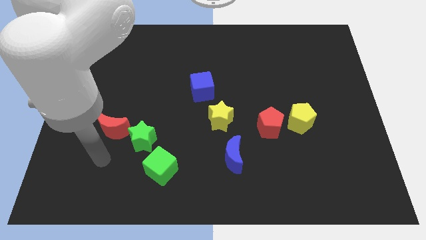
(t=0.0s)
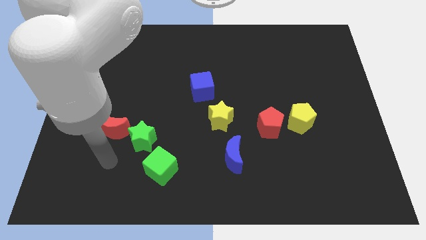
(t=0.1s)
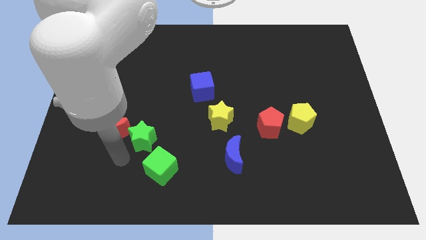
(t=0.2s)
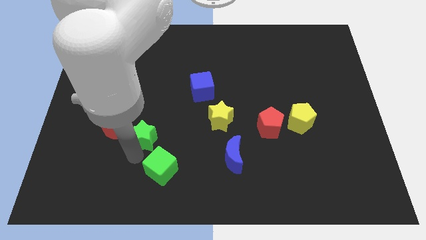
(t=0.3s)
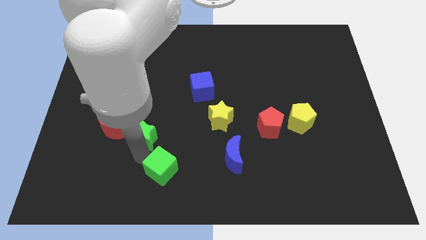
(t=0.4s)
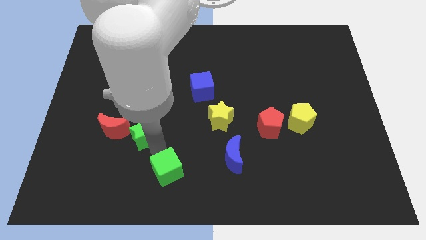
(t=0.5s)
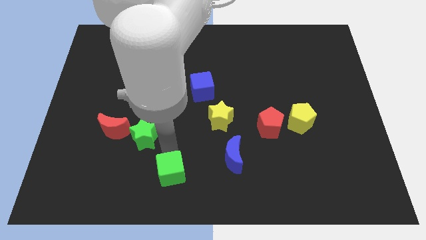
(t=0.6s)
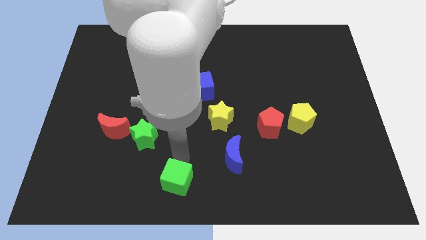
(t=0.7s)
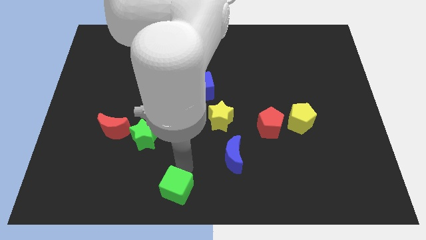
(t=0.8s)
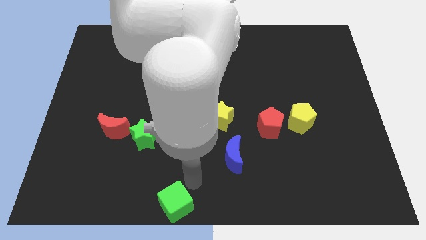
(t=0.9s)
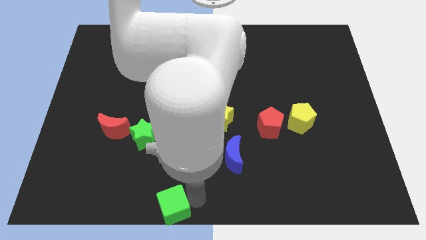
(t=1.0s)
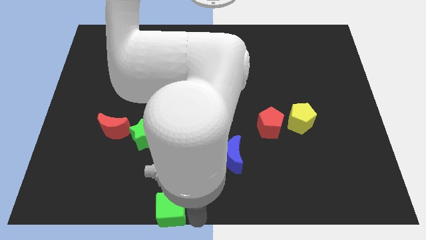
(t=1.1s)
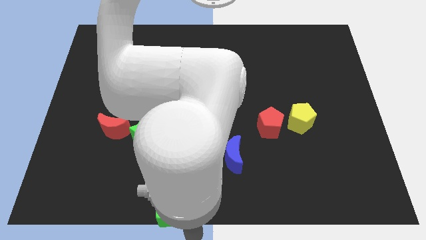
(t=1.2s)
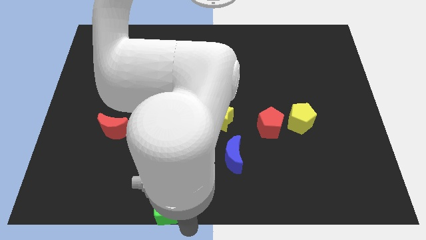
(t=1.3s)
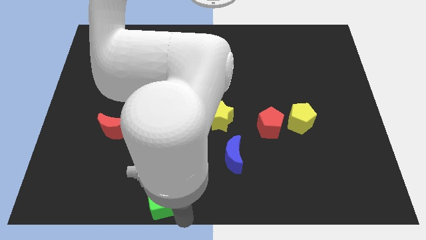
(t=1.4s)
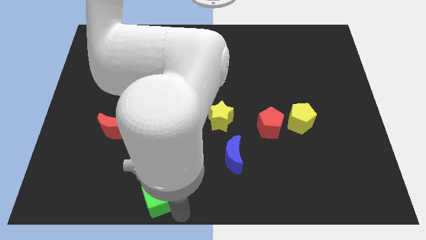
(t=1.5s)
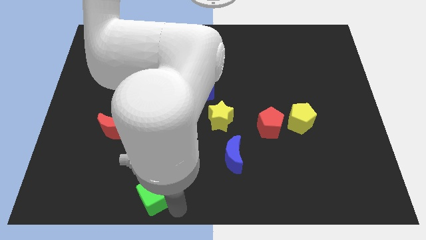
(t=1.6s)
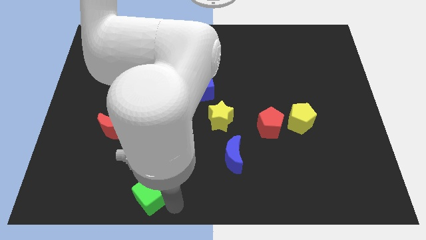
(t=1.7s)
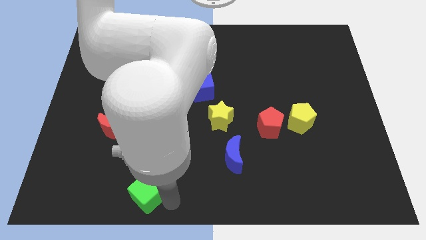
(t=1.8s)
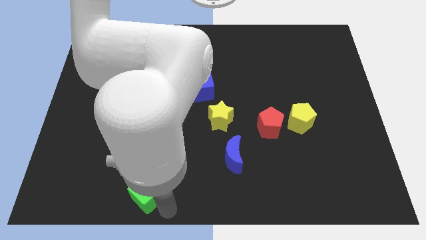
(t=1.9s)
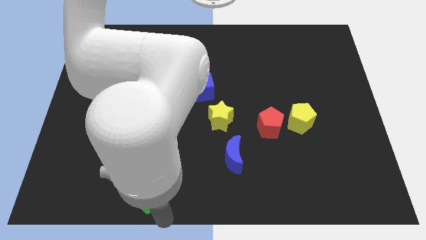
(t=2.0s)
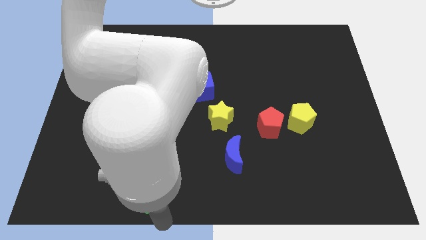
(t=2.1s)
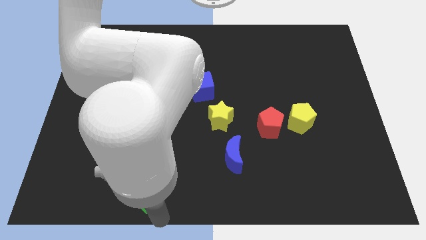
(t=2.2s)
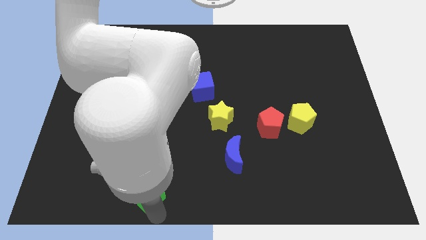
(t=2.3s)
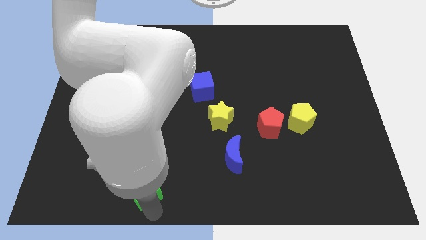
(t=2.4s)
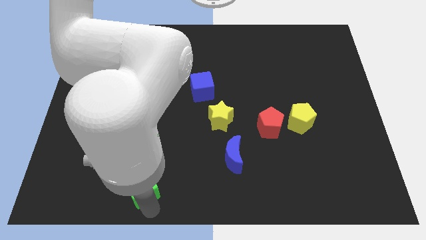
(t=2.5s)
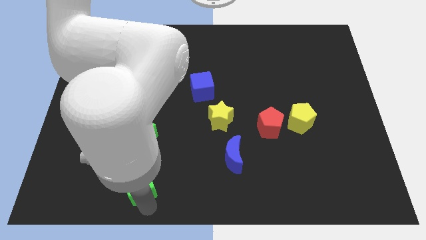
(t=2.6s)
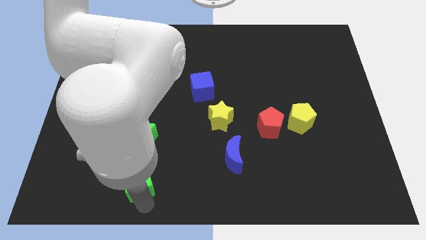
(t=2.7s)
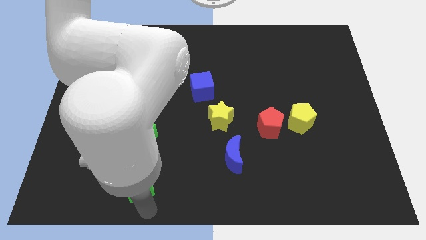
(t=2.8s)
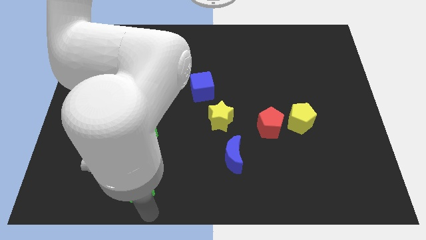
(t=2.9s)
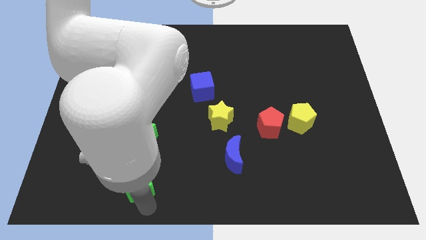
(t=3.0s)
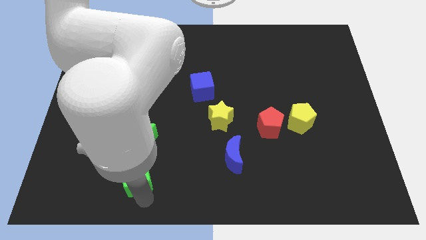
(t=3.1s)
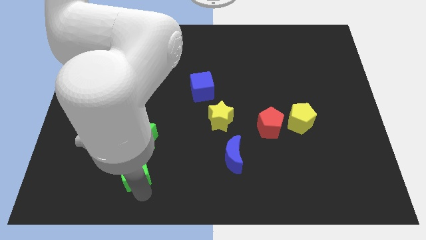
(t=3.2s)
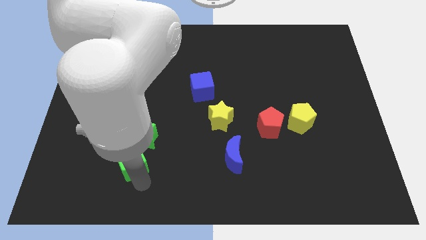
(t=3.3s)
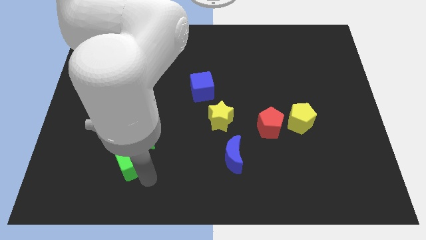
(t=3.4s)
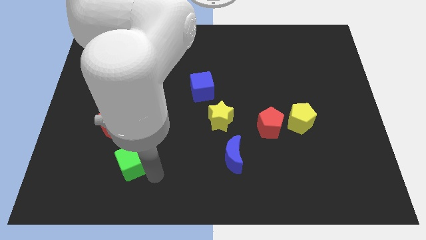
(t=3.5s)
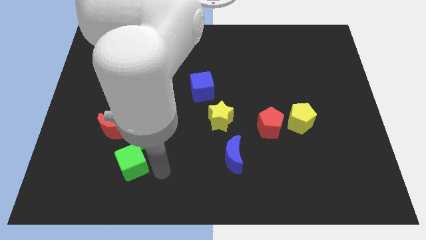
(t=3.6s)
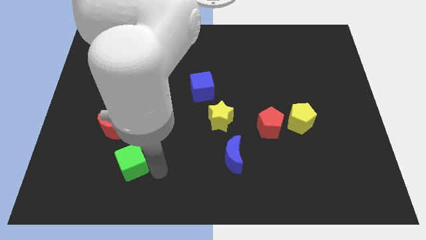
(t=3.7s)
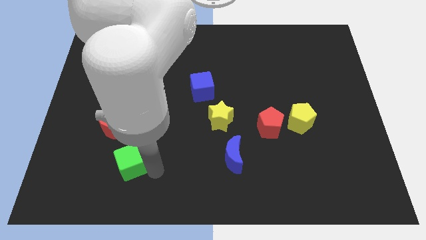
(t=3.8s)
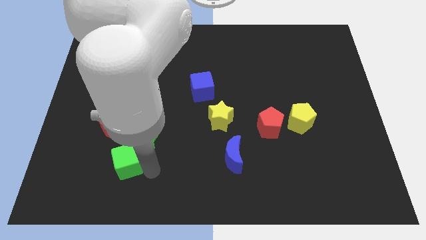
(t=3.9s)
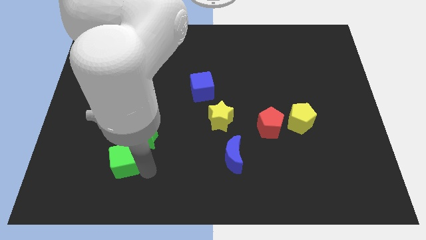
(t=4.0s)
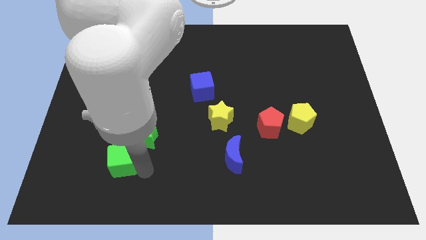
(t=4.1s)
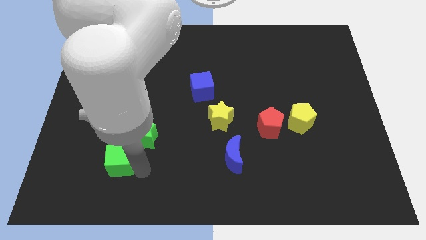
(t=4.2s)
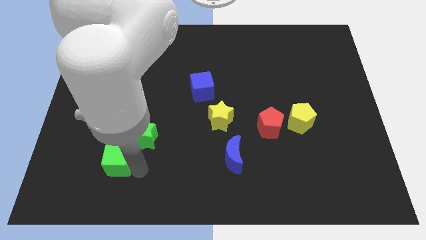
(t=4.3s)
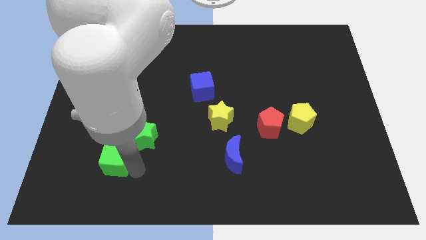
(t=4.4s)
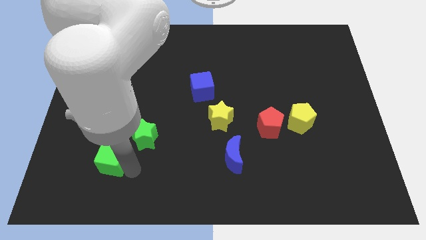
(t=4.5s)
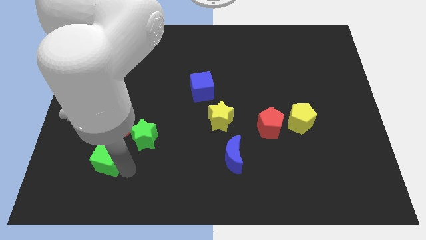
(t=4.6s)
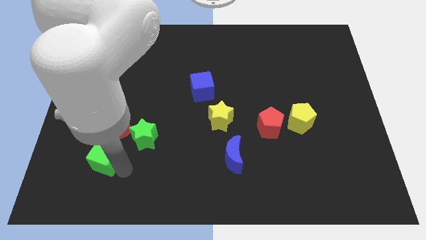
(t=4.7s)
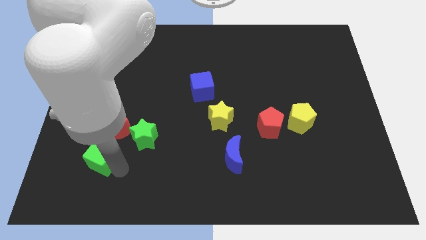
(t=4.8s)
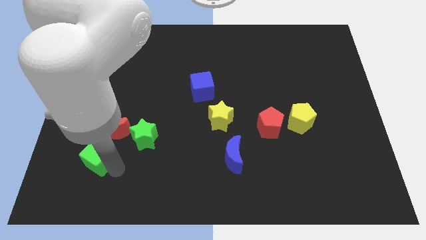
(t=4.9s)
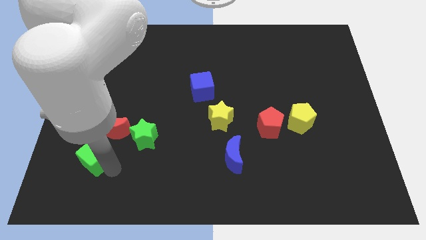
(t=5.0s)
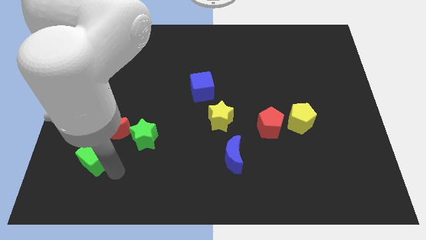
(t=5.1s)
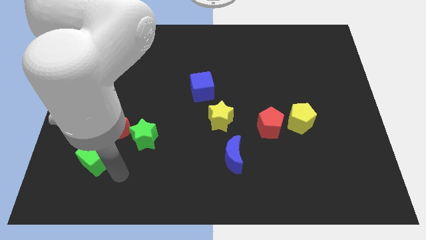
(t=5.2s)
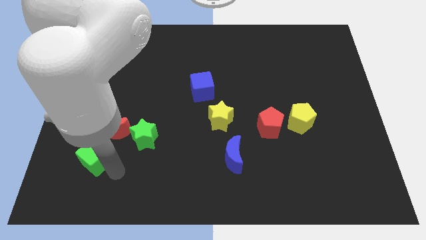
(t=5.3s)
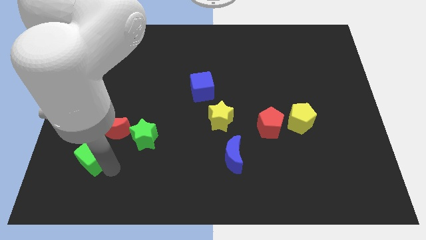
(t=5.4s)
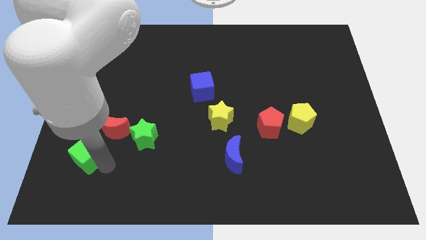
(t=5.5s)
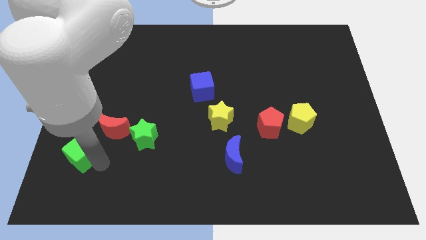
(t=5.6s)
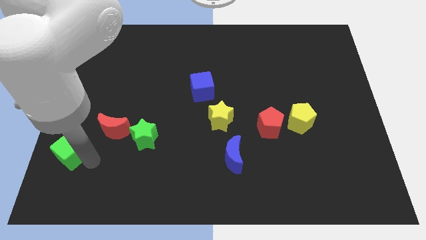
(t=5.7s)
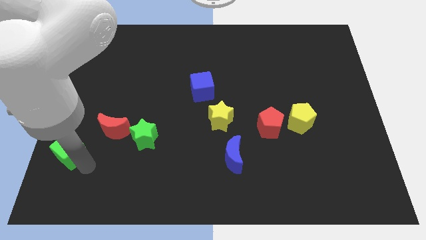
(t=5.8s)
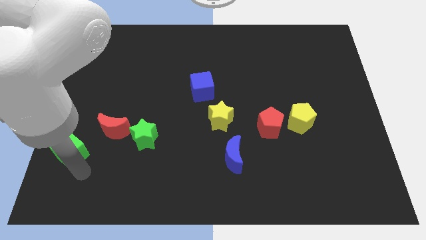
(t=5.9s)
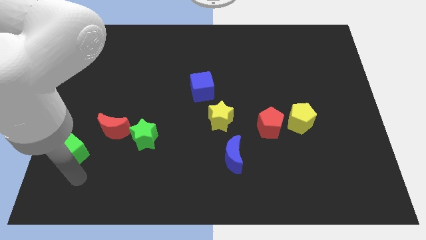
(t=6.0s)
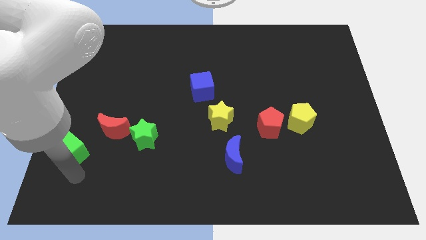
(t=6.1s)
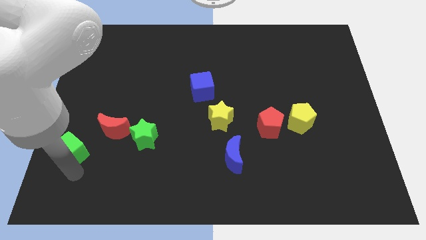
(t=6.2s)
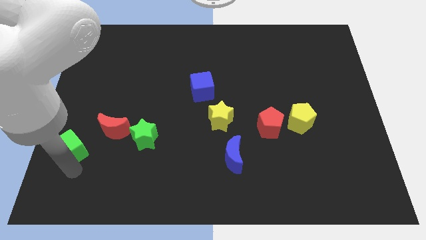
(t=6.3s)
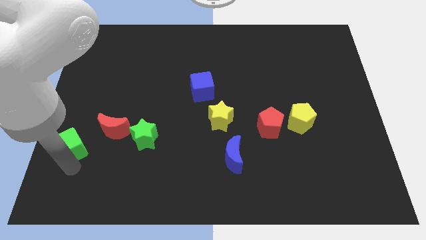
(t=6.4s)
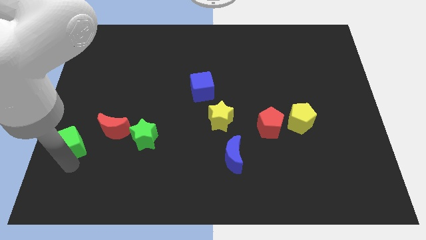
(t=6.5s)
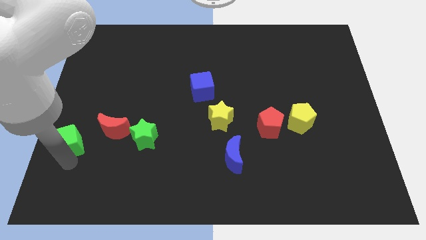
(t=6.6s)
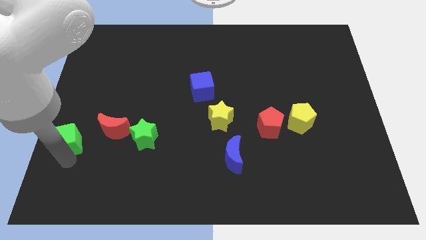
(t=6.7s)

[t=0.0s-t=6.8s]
put the green cube to the center left
